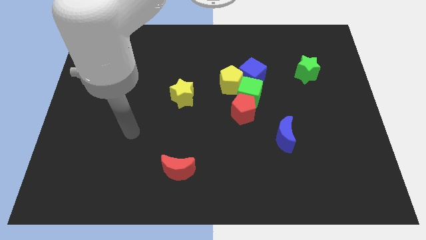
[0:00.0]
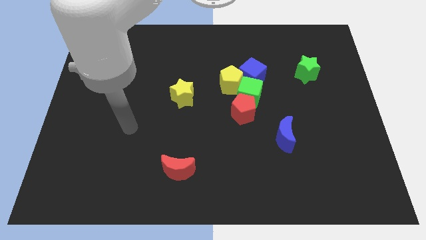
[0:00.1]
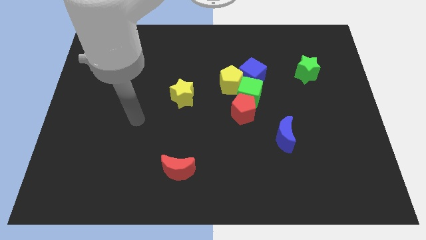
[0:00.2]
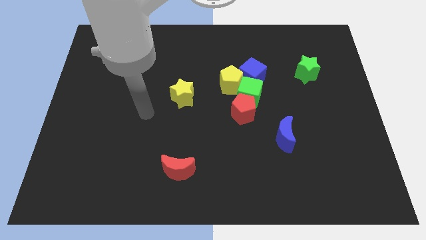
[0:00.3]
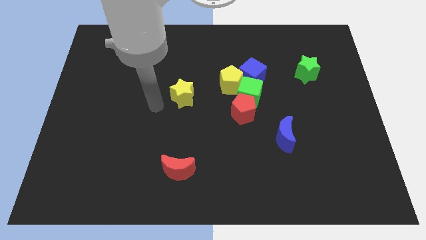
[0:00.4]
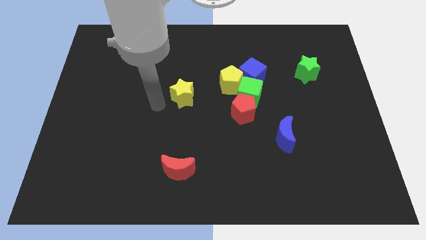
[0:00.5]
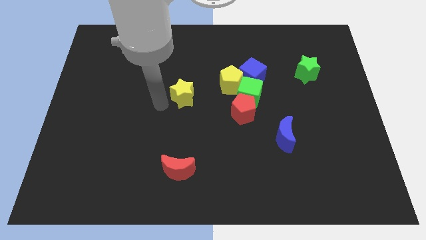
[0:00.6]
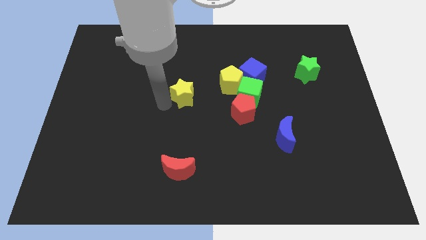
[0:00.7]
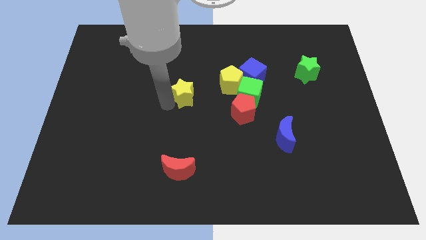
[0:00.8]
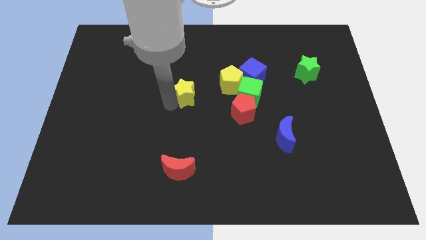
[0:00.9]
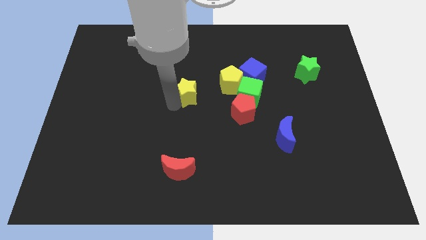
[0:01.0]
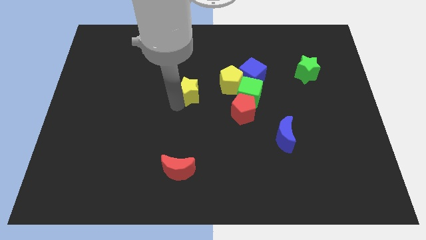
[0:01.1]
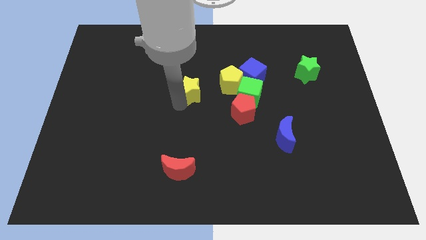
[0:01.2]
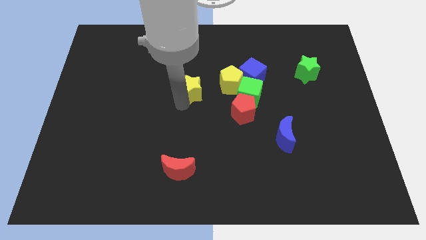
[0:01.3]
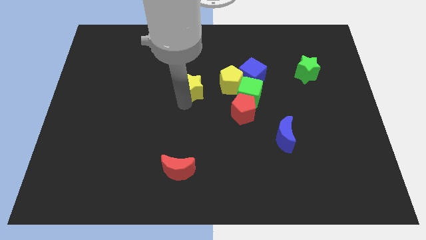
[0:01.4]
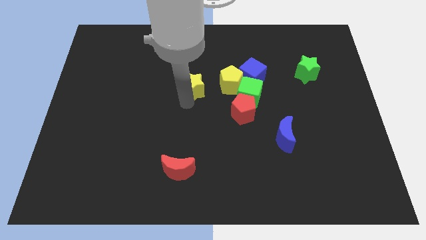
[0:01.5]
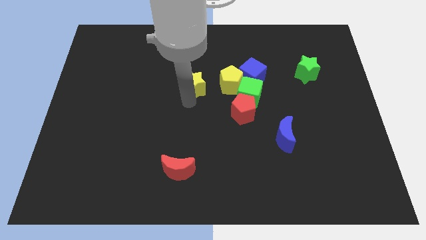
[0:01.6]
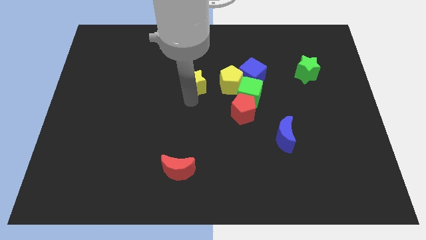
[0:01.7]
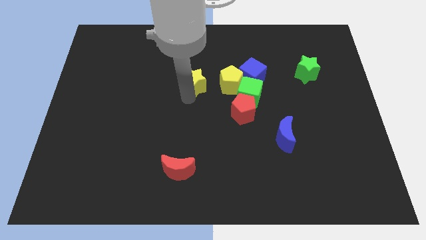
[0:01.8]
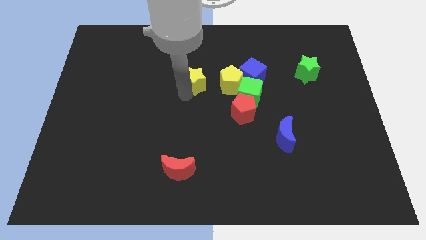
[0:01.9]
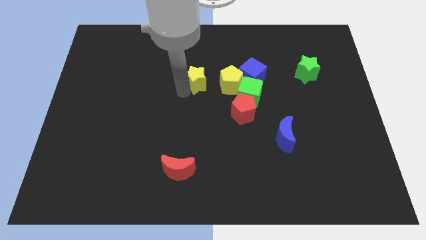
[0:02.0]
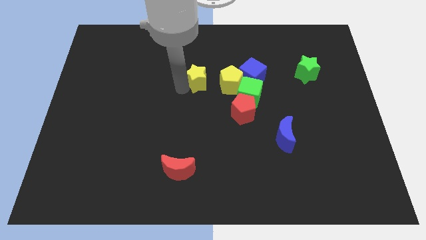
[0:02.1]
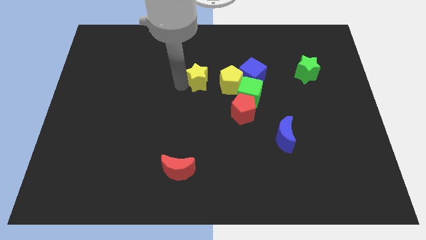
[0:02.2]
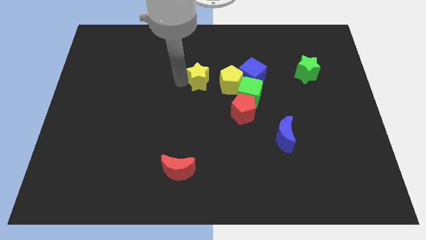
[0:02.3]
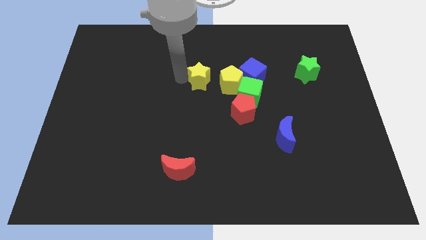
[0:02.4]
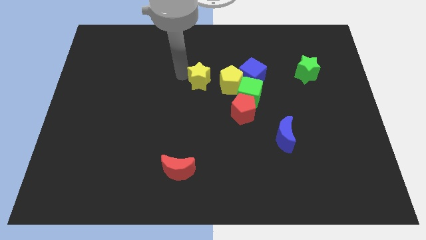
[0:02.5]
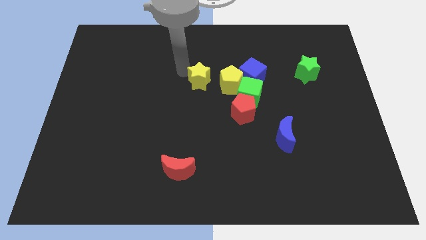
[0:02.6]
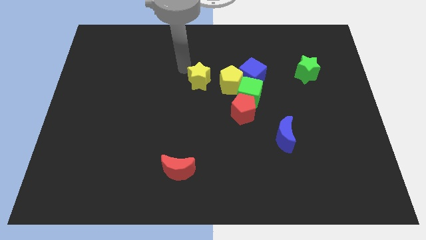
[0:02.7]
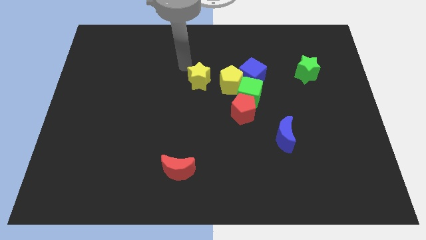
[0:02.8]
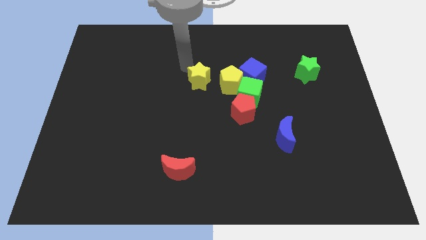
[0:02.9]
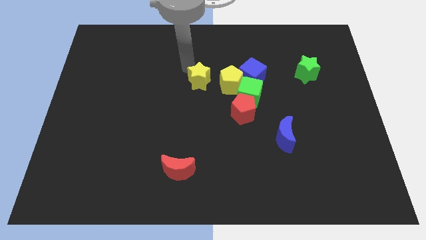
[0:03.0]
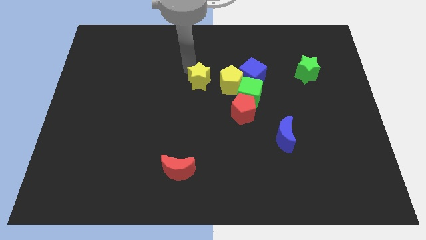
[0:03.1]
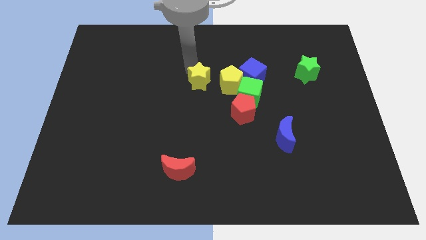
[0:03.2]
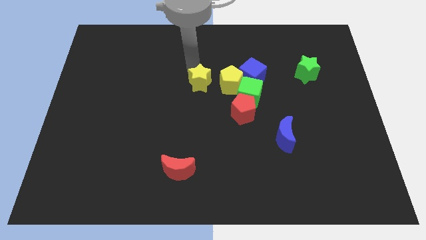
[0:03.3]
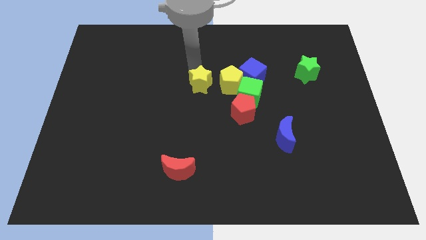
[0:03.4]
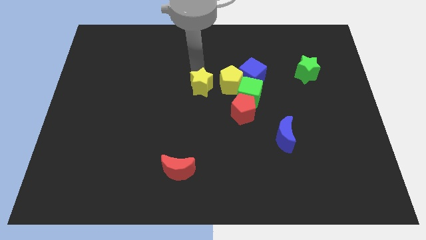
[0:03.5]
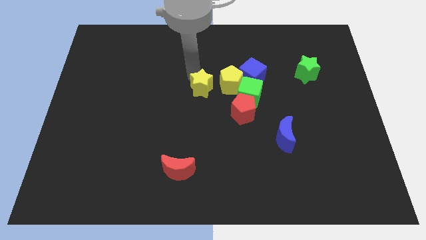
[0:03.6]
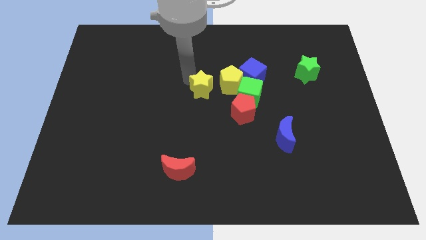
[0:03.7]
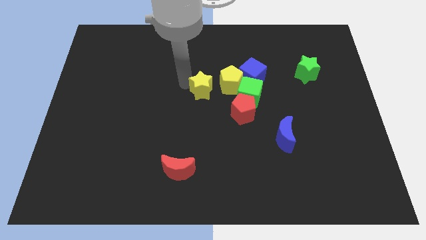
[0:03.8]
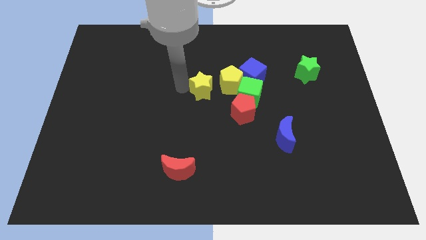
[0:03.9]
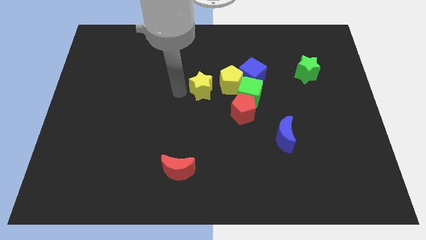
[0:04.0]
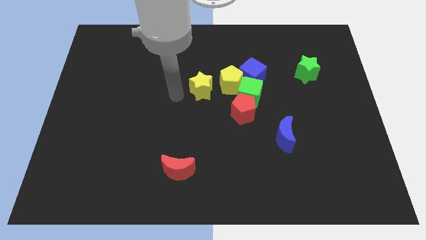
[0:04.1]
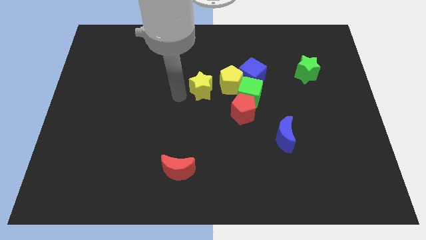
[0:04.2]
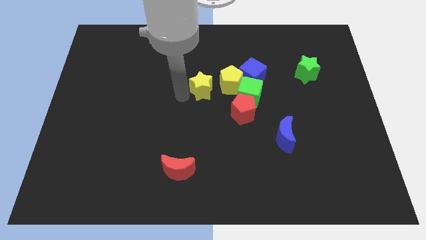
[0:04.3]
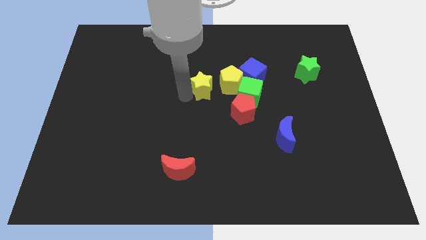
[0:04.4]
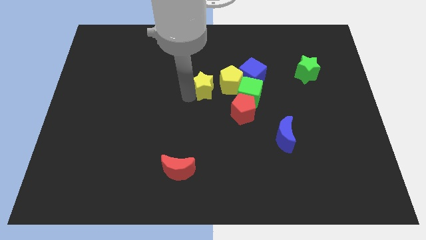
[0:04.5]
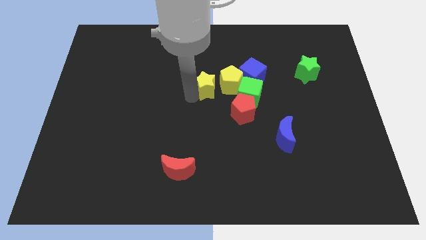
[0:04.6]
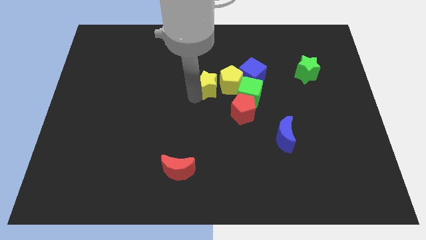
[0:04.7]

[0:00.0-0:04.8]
push the yellow star towards the yellow pentagon

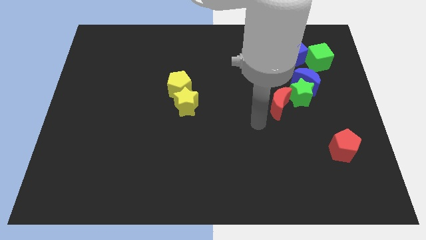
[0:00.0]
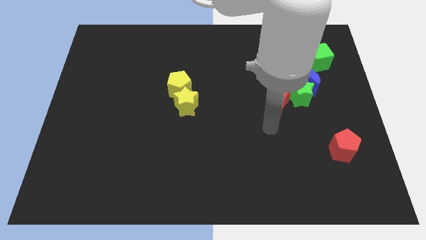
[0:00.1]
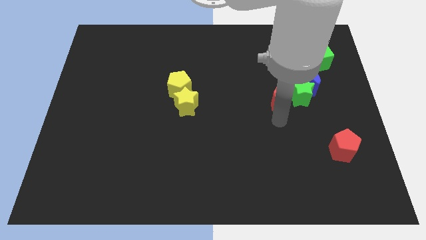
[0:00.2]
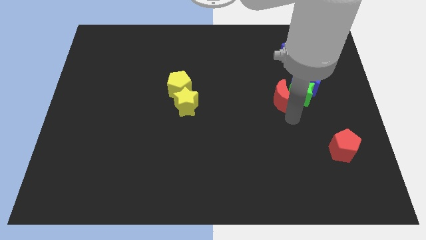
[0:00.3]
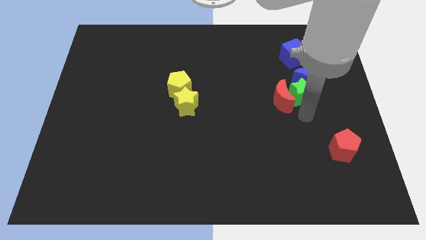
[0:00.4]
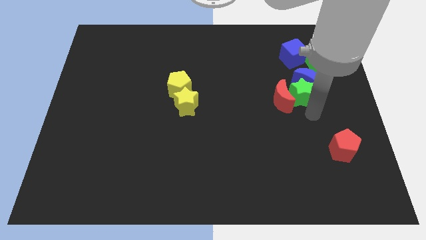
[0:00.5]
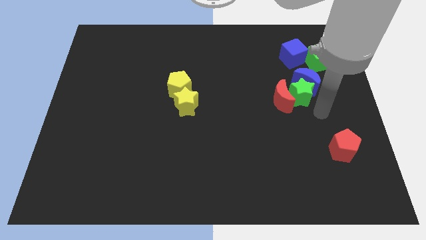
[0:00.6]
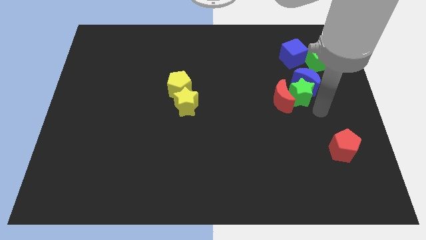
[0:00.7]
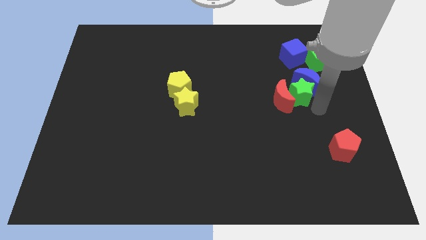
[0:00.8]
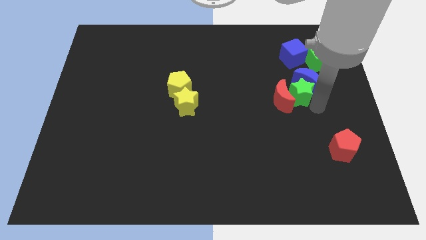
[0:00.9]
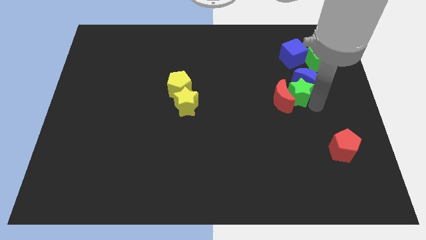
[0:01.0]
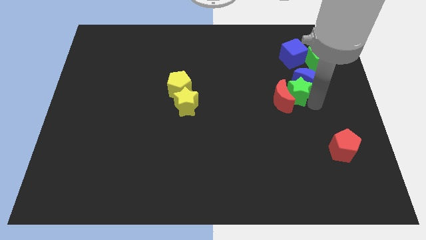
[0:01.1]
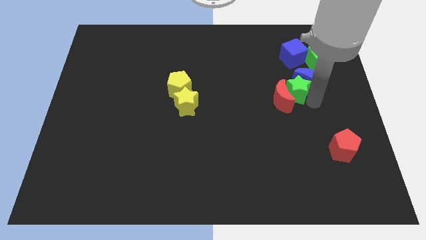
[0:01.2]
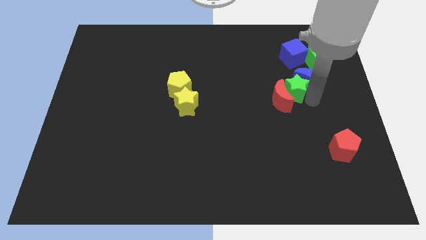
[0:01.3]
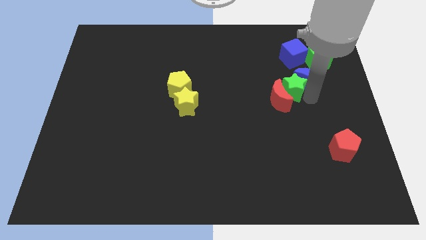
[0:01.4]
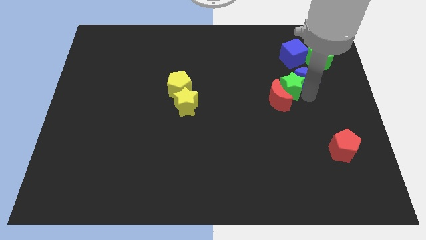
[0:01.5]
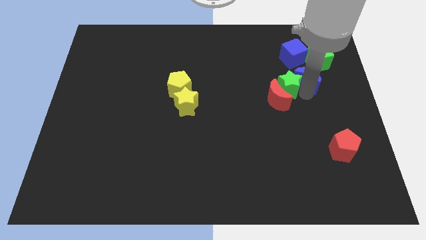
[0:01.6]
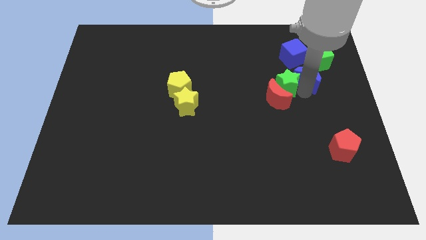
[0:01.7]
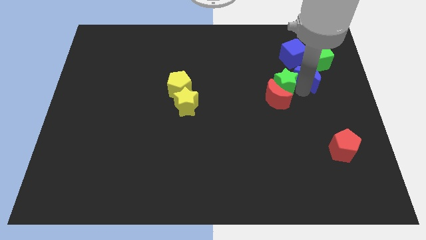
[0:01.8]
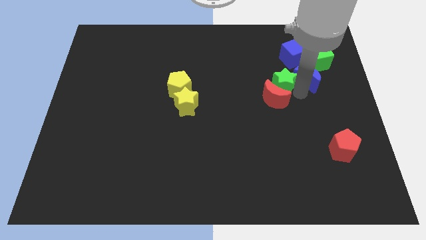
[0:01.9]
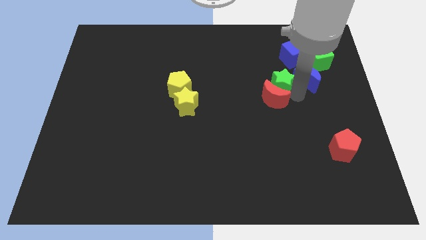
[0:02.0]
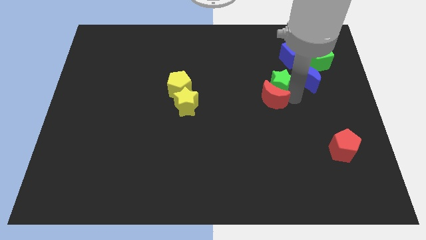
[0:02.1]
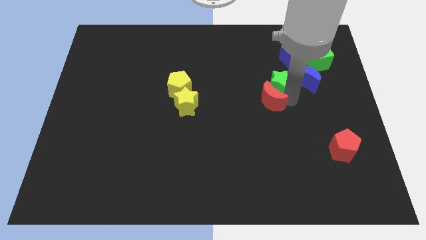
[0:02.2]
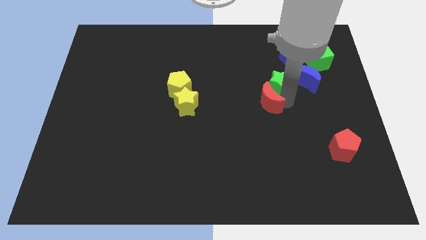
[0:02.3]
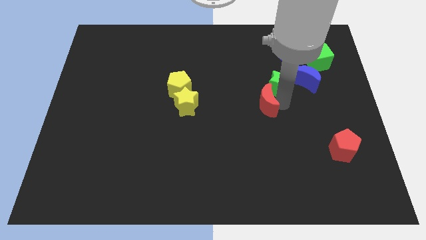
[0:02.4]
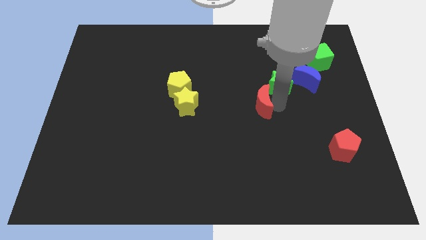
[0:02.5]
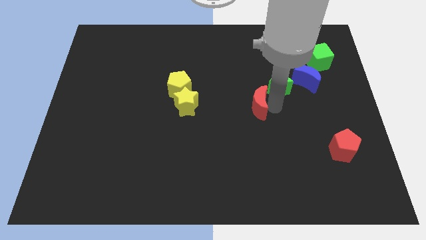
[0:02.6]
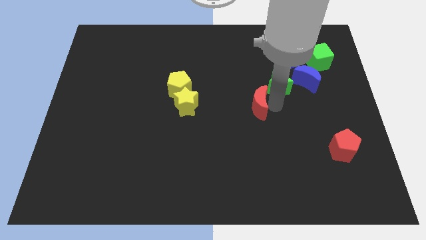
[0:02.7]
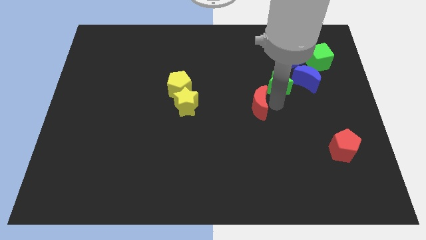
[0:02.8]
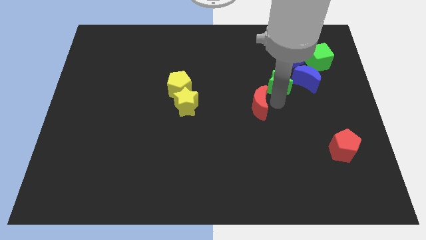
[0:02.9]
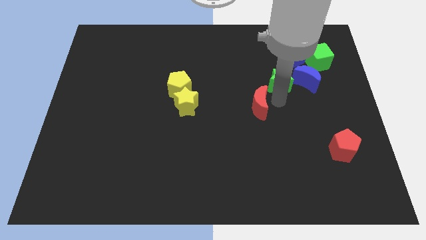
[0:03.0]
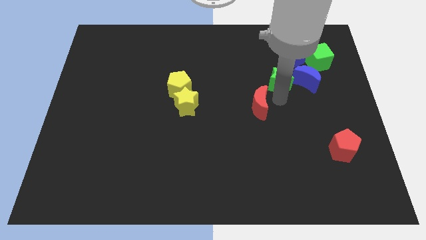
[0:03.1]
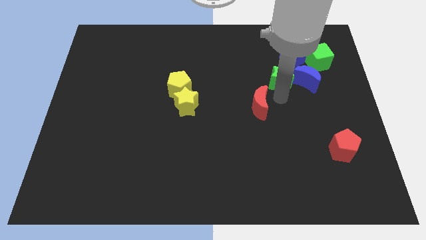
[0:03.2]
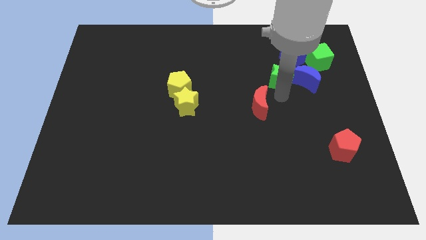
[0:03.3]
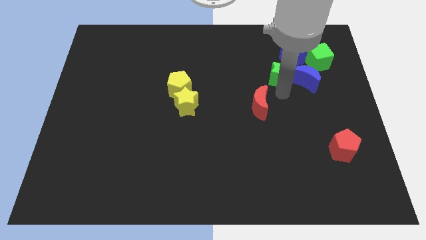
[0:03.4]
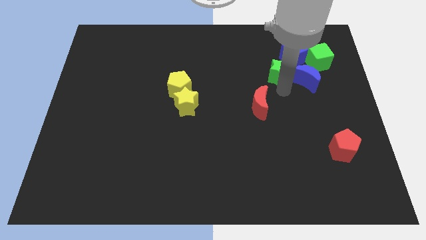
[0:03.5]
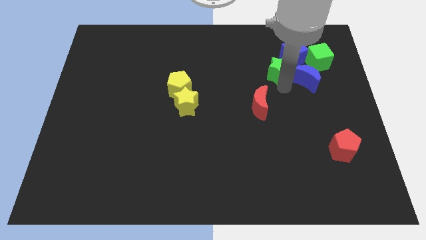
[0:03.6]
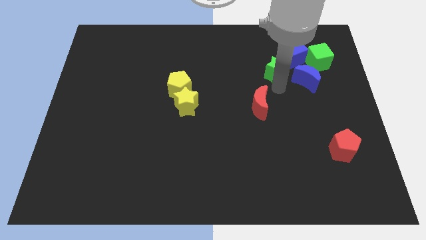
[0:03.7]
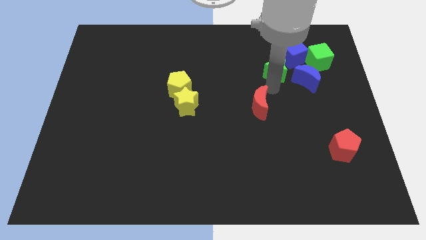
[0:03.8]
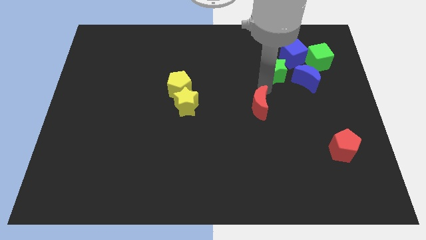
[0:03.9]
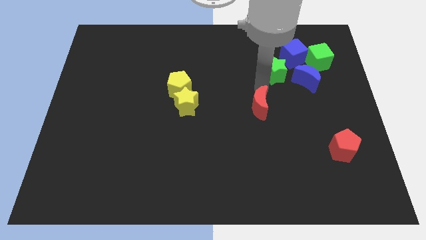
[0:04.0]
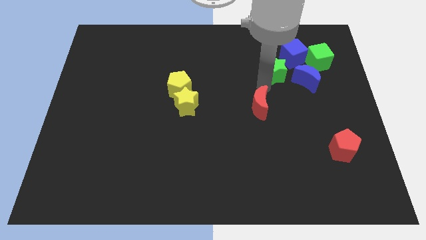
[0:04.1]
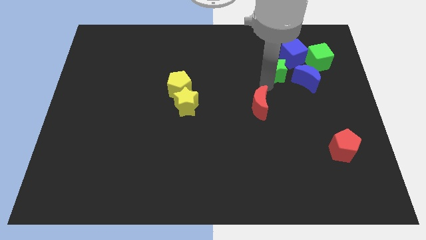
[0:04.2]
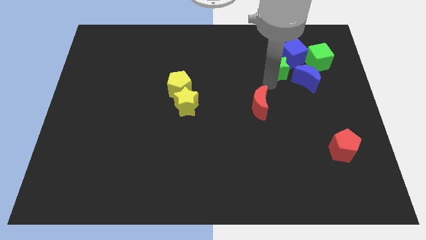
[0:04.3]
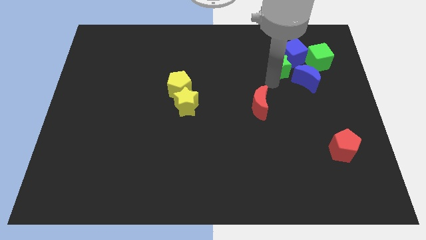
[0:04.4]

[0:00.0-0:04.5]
push the green star towards the blue cube
